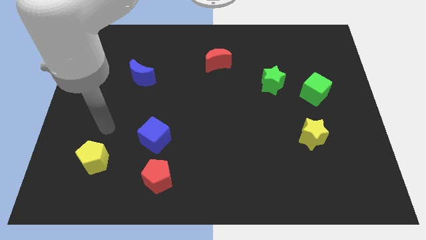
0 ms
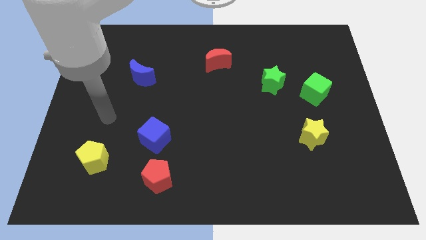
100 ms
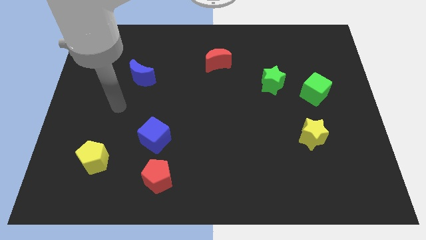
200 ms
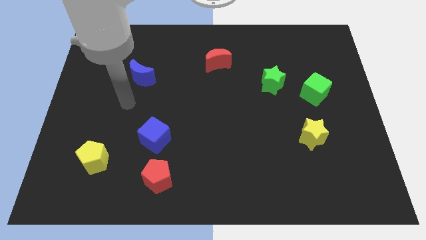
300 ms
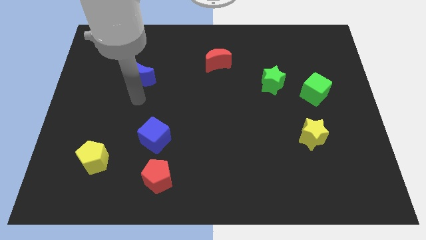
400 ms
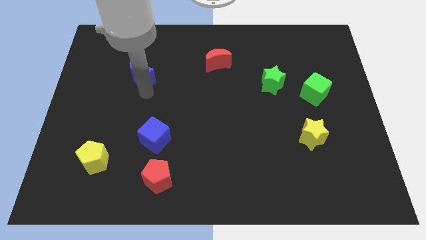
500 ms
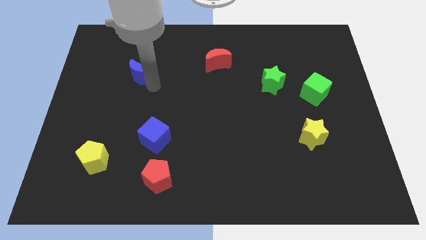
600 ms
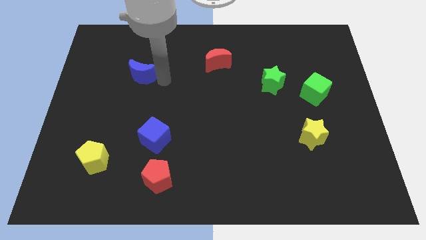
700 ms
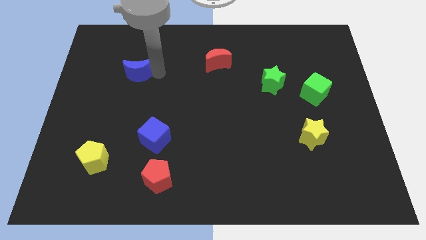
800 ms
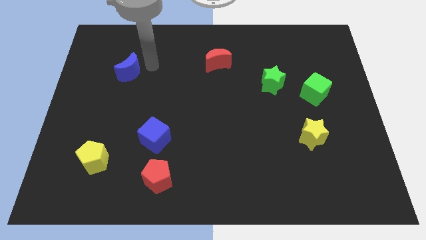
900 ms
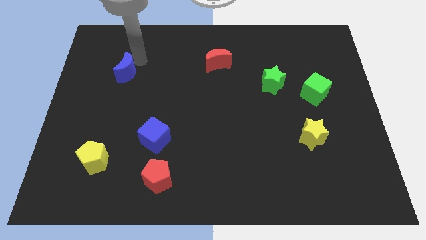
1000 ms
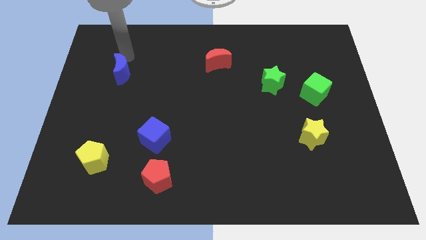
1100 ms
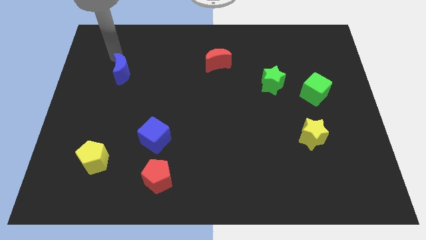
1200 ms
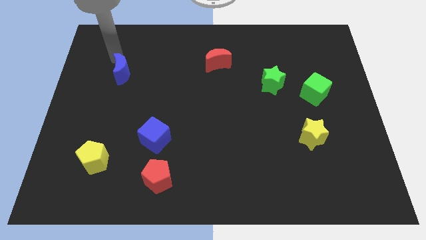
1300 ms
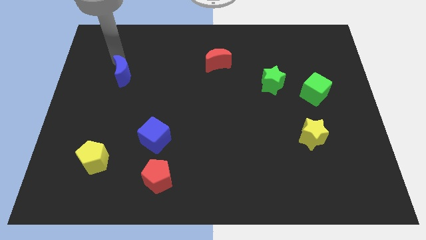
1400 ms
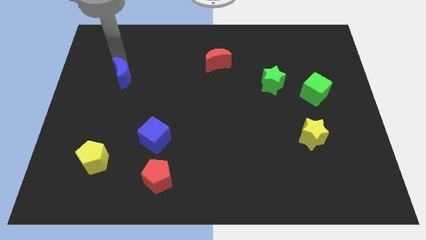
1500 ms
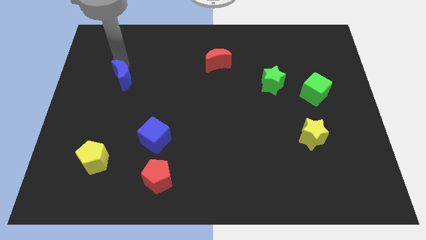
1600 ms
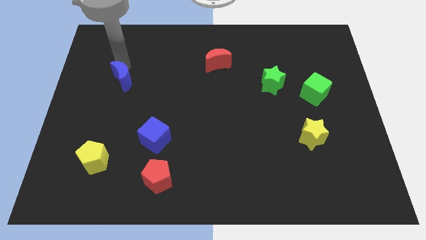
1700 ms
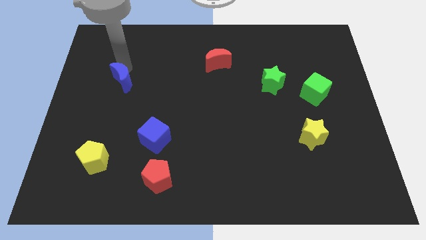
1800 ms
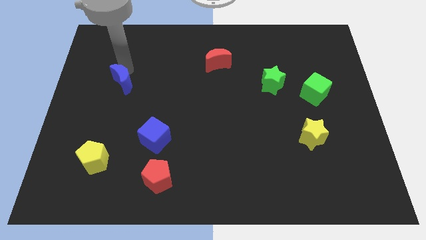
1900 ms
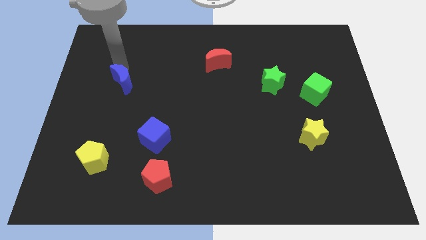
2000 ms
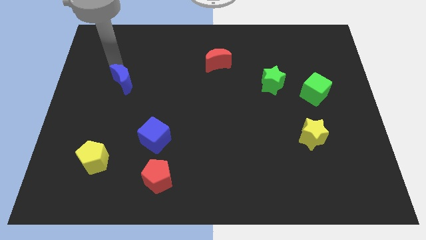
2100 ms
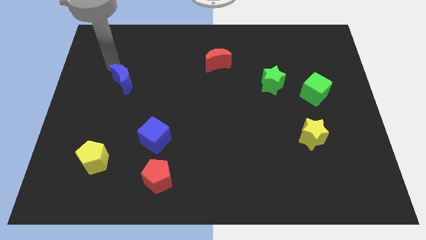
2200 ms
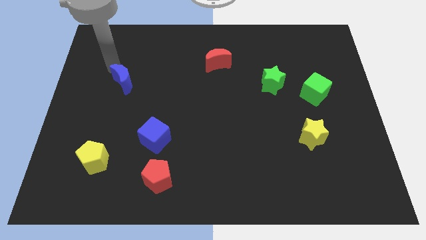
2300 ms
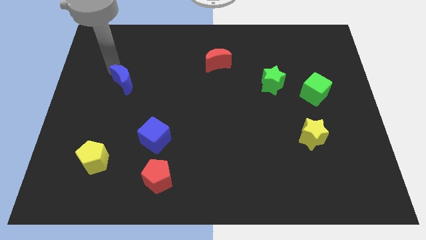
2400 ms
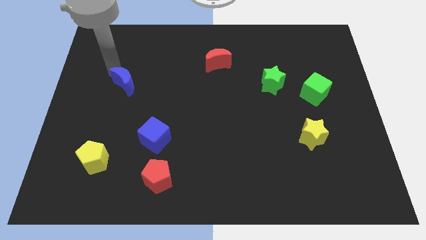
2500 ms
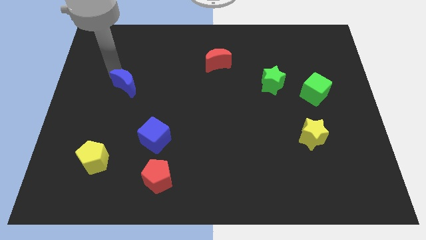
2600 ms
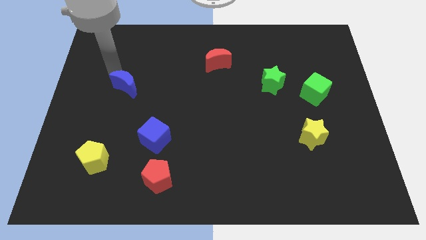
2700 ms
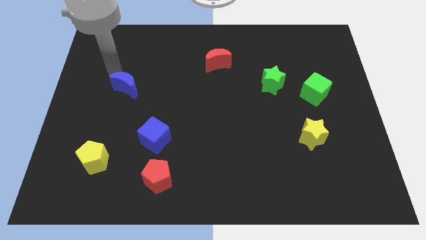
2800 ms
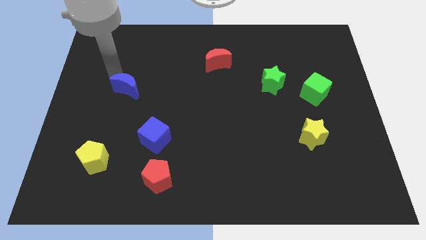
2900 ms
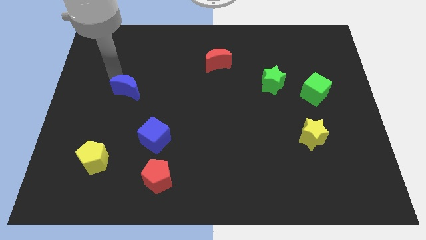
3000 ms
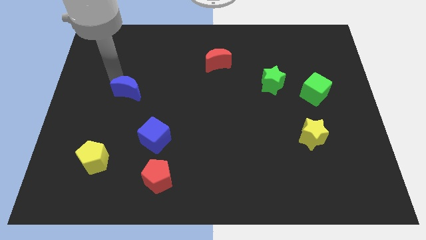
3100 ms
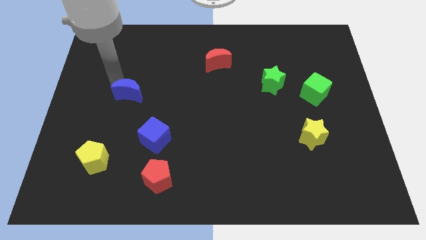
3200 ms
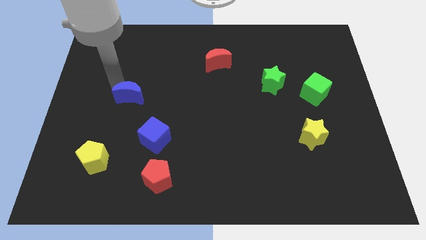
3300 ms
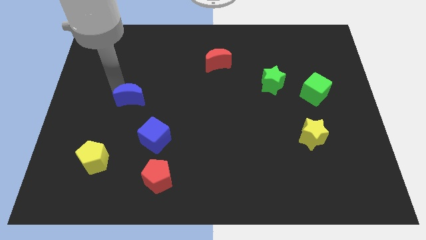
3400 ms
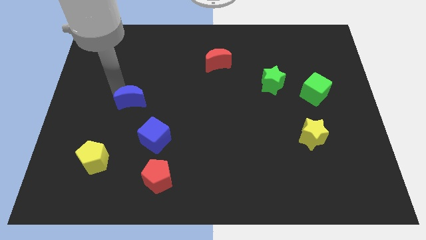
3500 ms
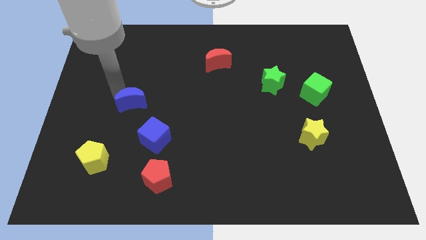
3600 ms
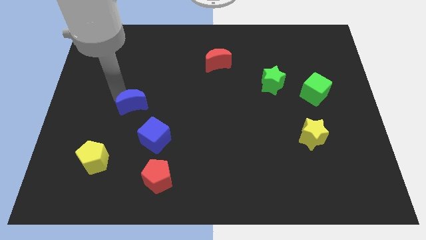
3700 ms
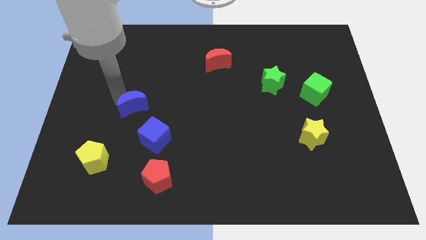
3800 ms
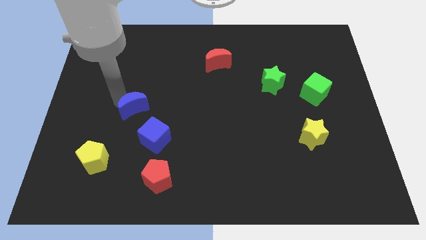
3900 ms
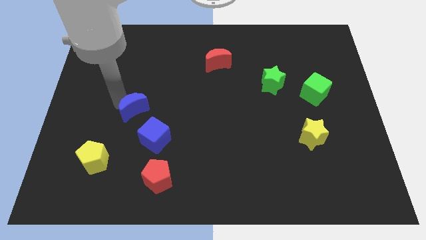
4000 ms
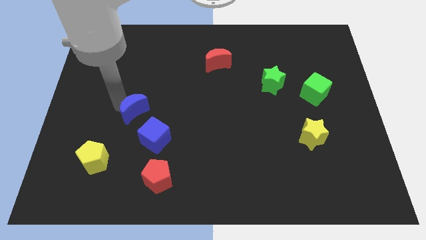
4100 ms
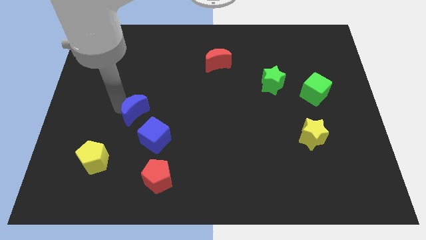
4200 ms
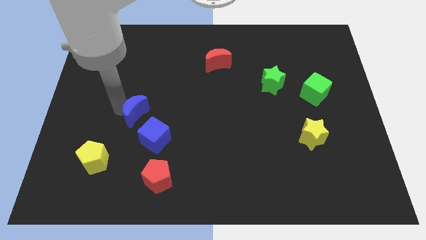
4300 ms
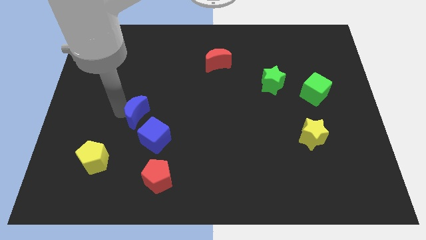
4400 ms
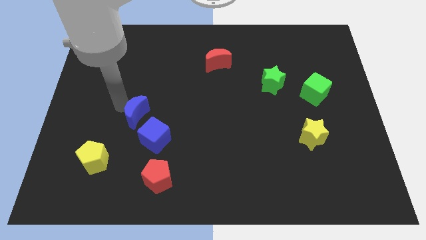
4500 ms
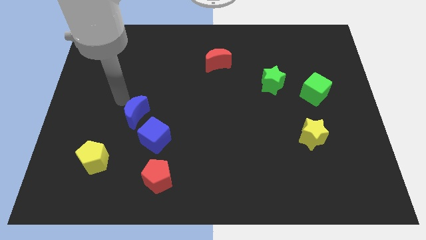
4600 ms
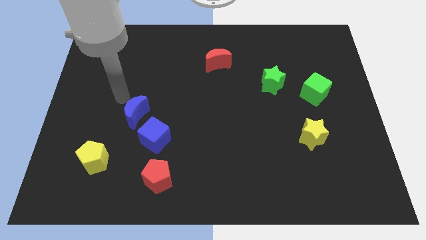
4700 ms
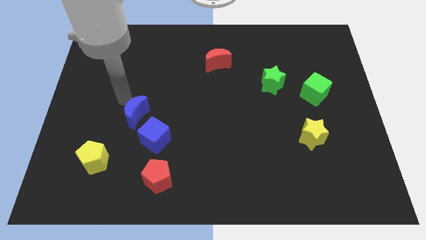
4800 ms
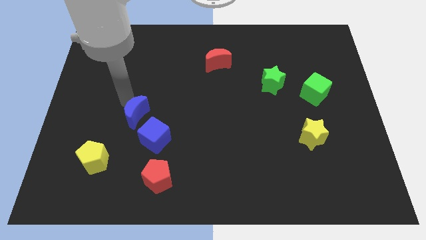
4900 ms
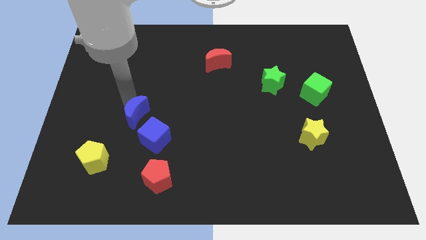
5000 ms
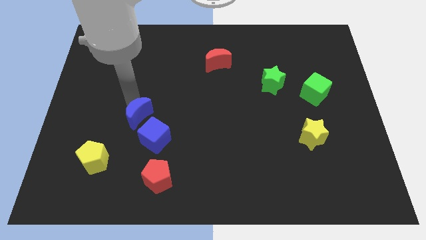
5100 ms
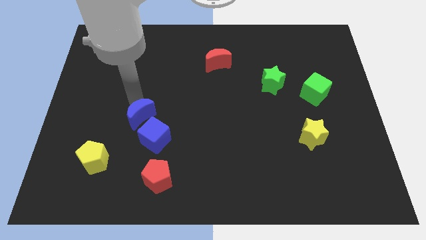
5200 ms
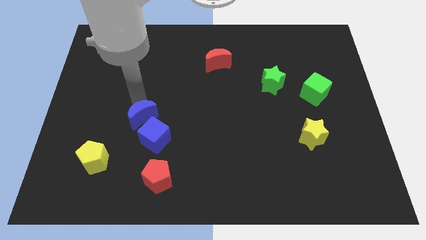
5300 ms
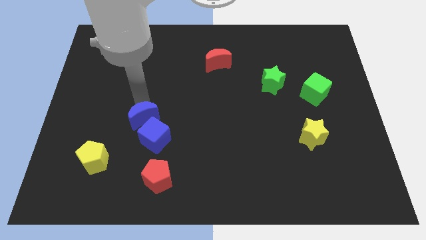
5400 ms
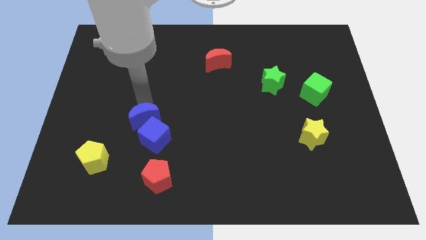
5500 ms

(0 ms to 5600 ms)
push the blue moon to the blue cube

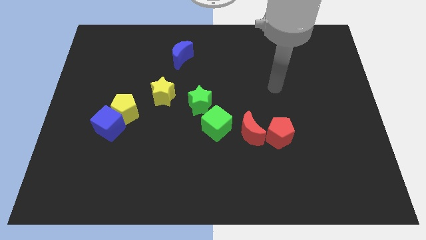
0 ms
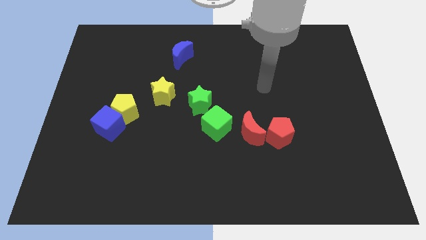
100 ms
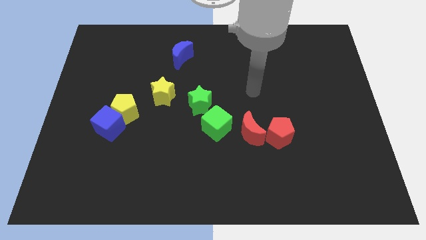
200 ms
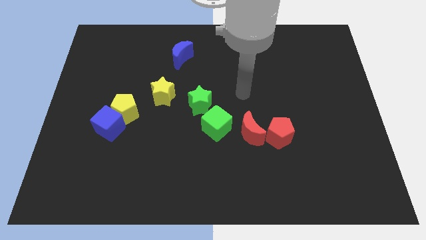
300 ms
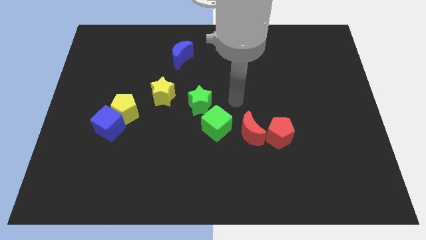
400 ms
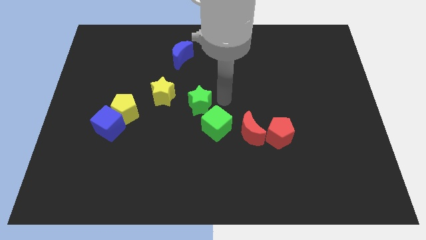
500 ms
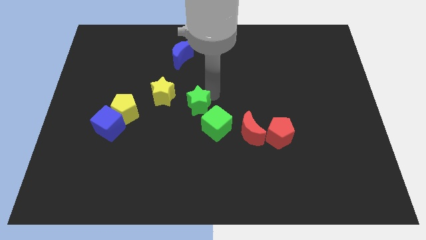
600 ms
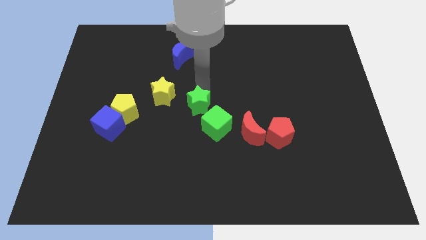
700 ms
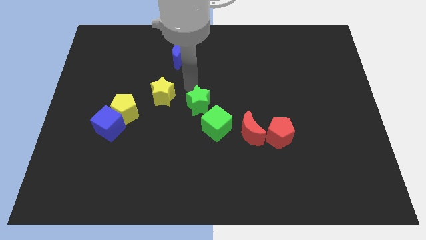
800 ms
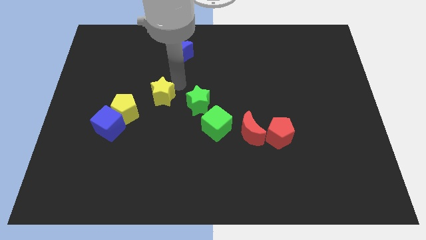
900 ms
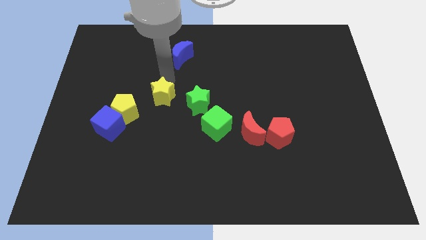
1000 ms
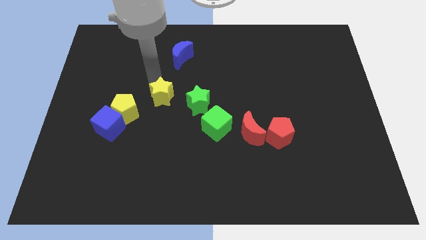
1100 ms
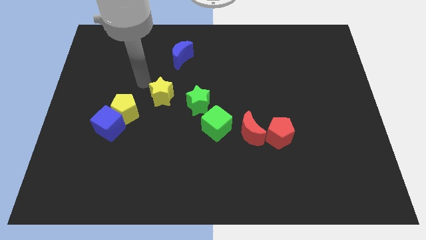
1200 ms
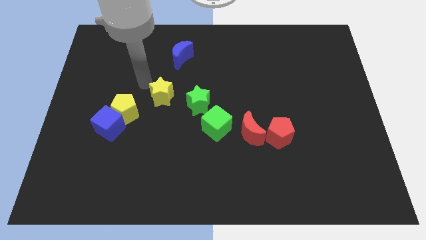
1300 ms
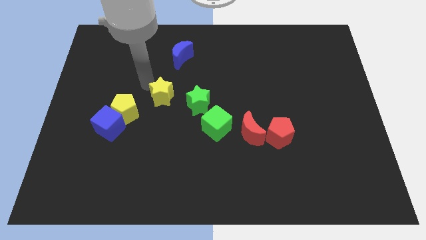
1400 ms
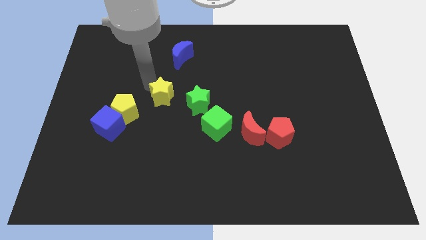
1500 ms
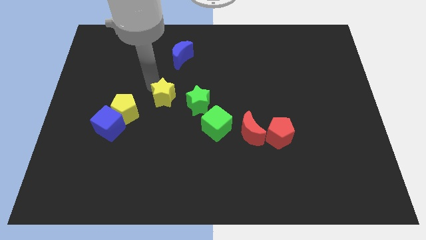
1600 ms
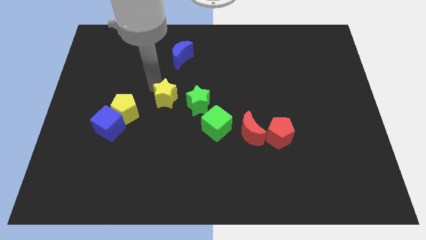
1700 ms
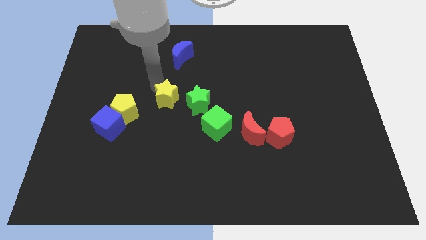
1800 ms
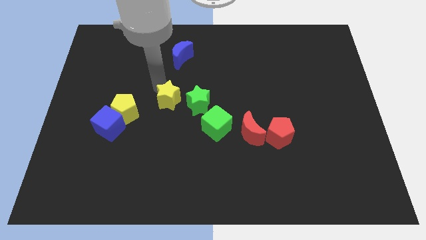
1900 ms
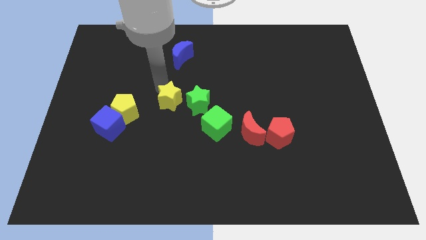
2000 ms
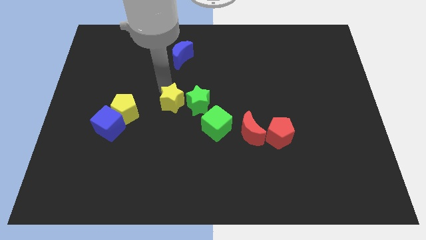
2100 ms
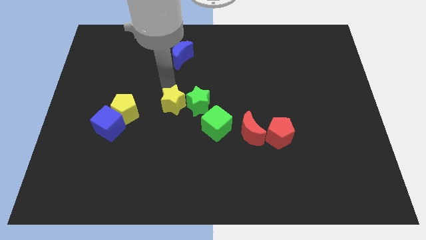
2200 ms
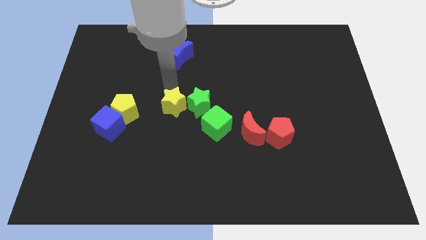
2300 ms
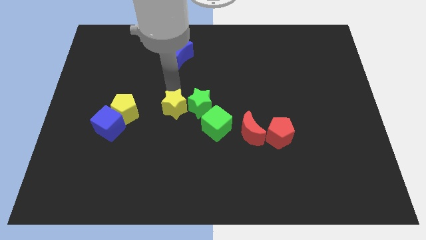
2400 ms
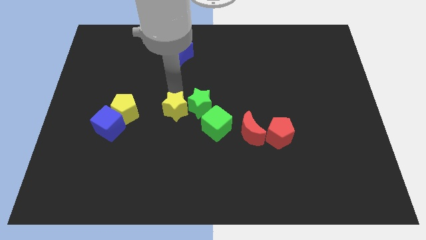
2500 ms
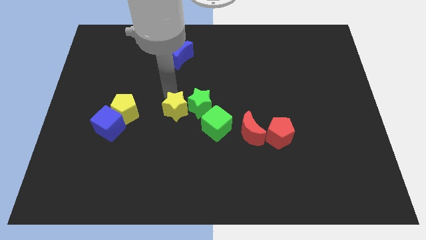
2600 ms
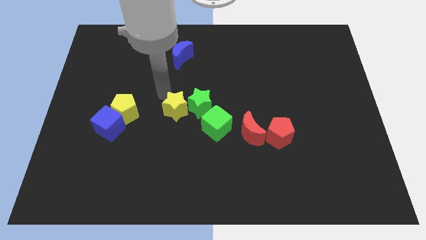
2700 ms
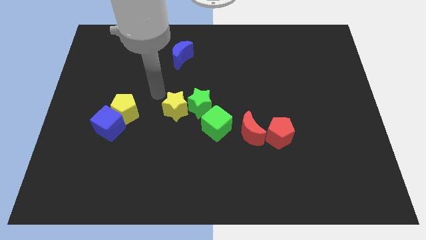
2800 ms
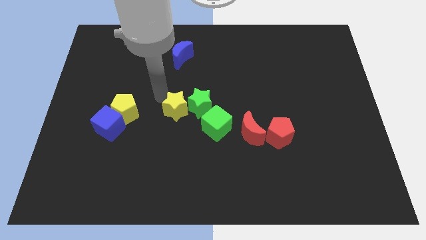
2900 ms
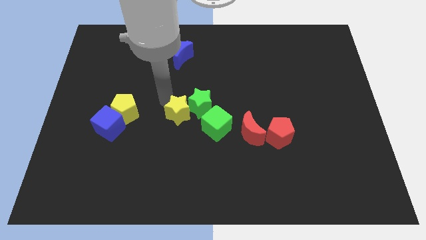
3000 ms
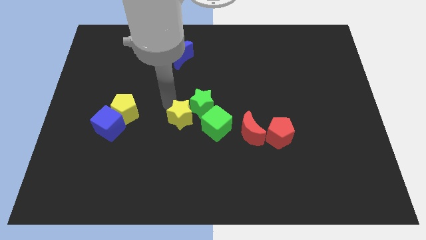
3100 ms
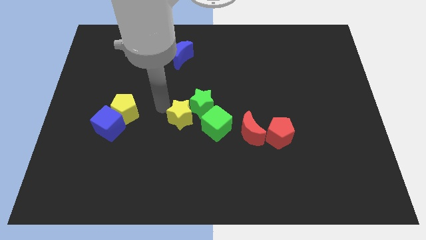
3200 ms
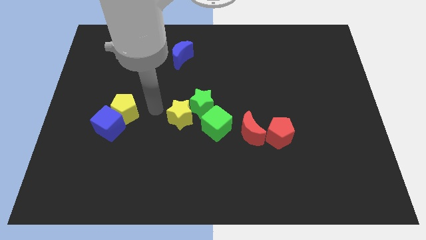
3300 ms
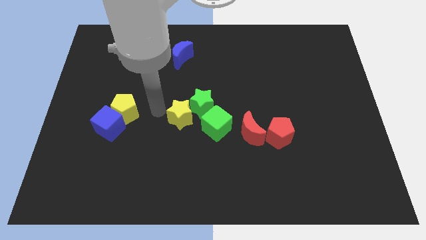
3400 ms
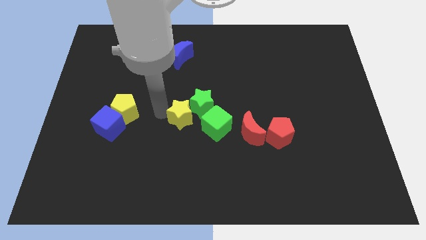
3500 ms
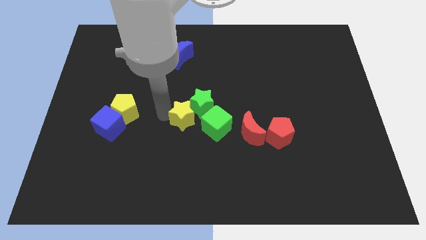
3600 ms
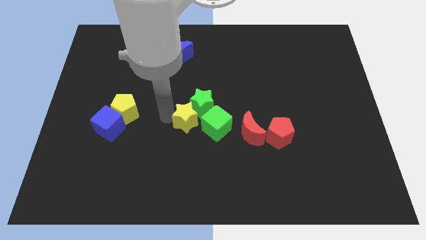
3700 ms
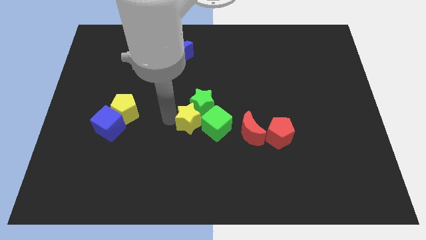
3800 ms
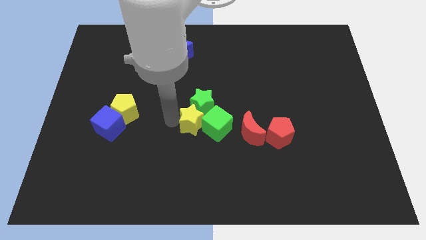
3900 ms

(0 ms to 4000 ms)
move the yellow star towards the green cube
